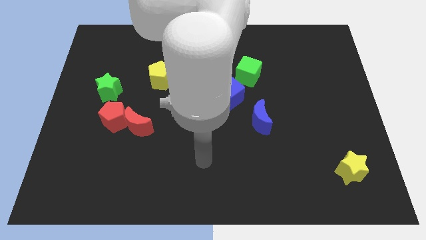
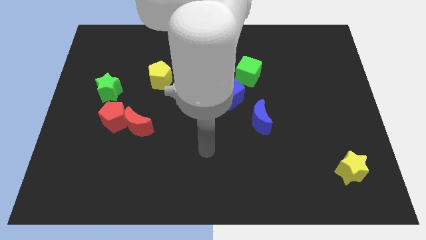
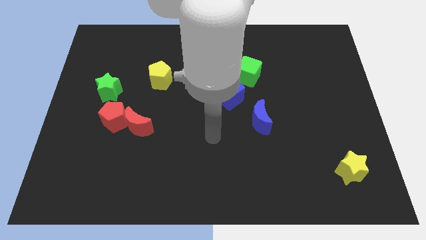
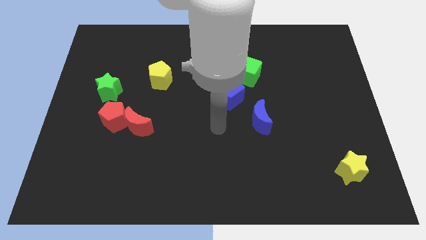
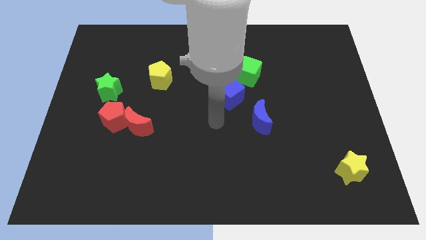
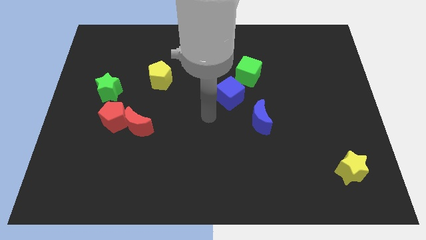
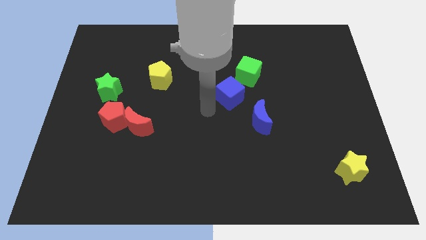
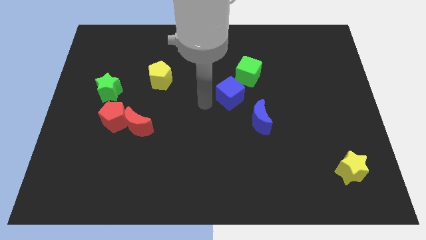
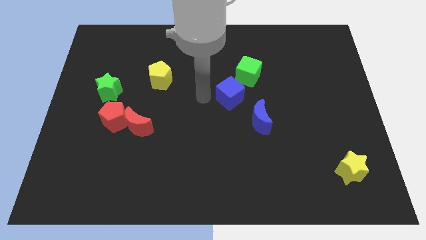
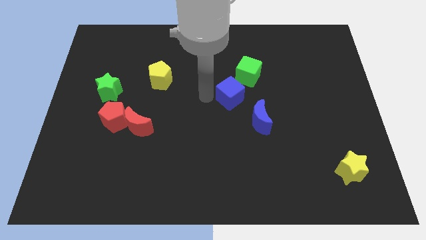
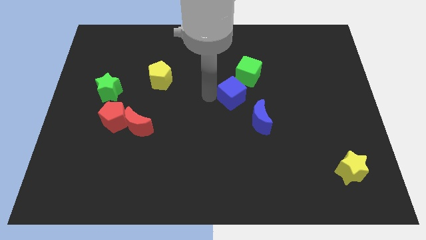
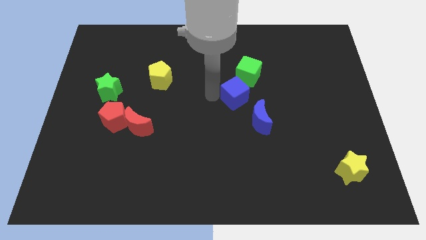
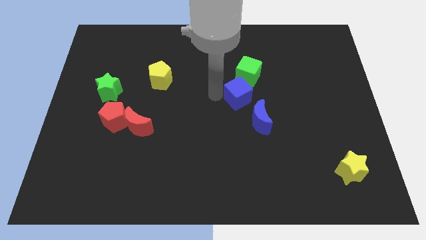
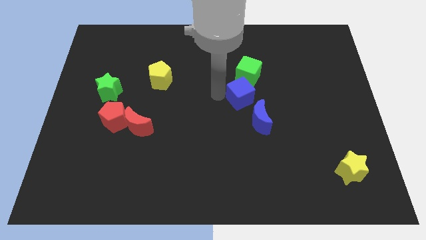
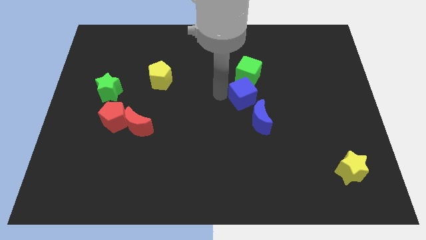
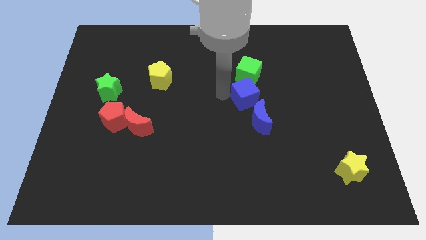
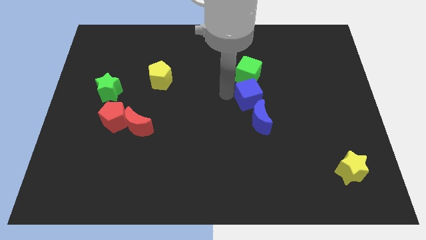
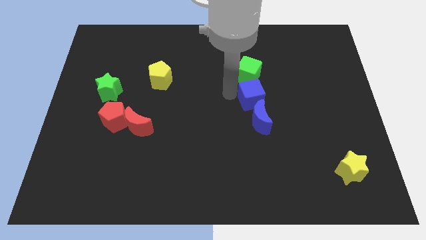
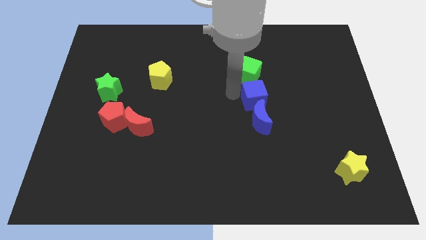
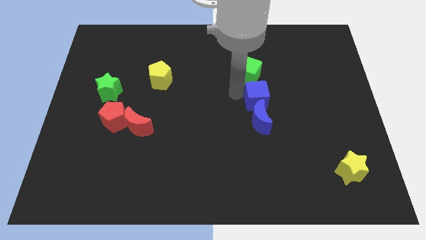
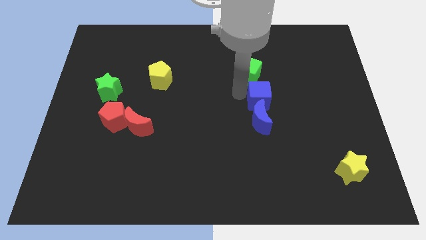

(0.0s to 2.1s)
slightly move the blue cube to the right

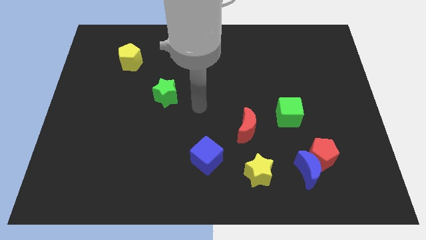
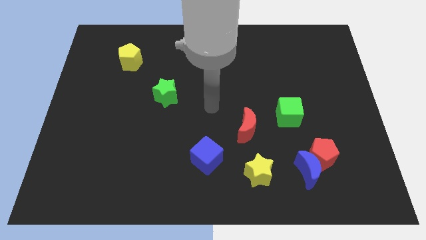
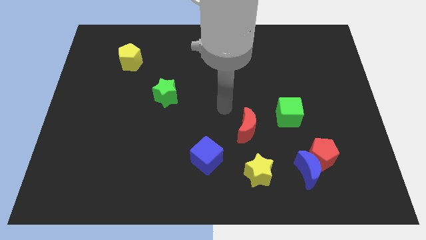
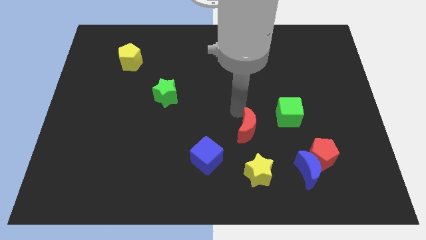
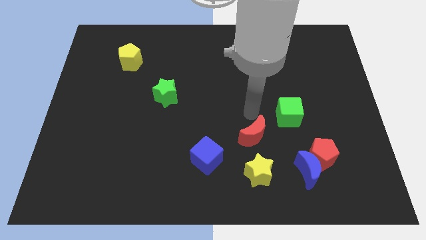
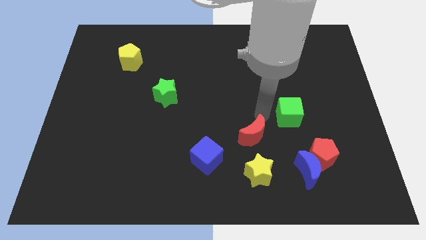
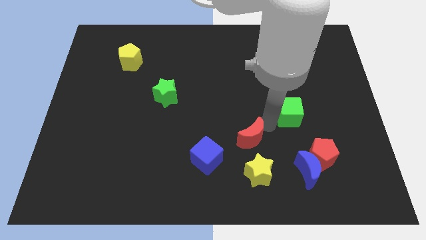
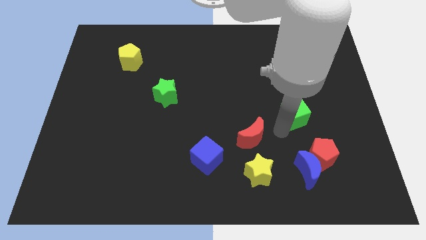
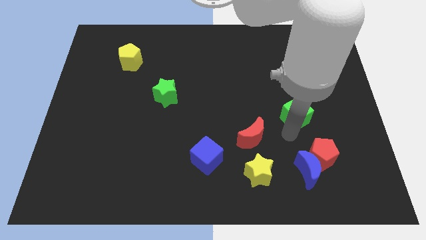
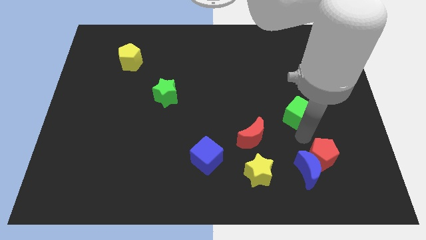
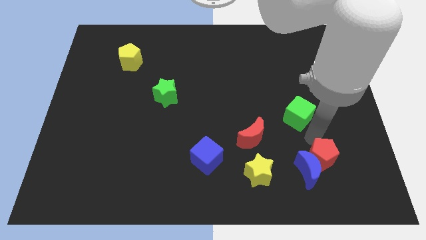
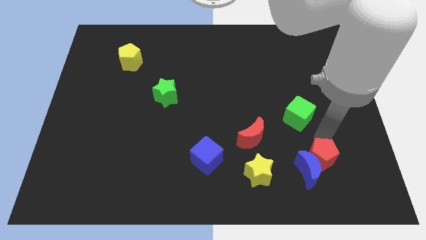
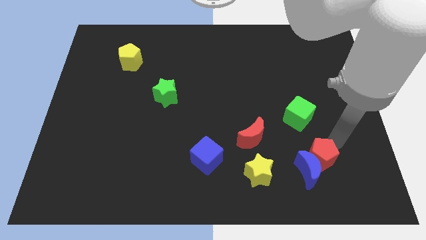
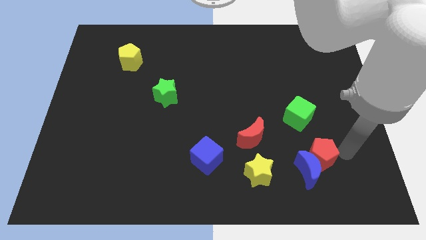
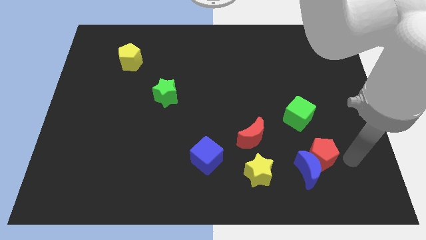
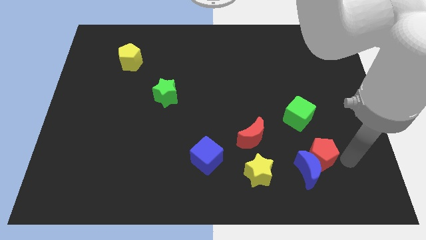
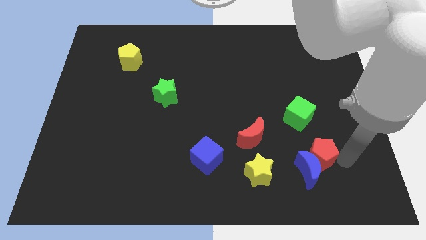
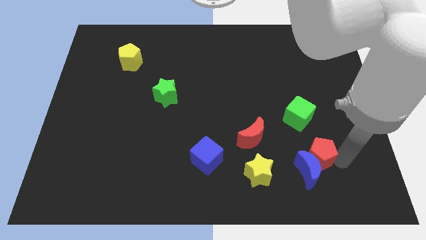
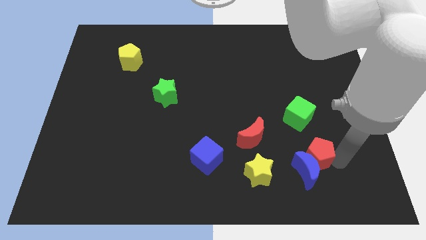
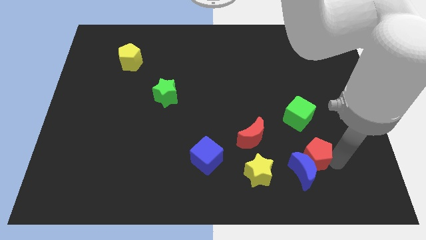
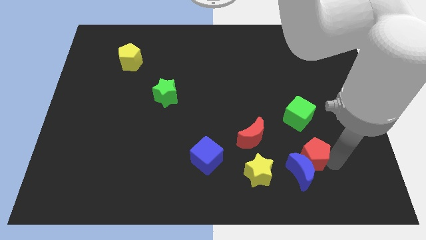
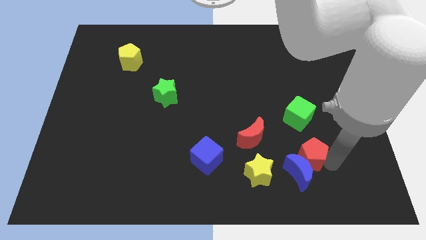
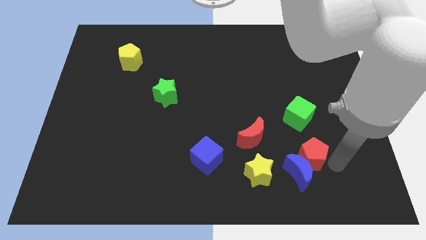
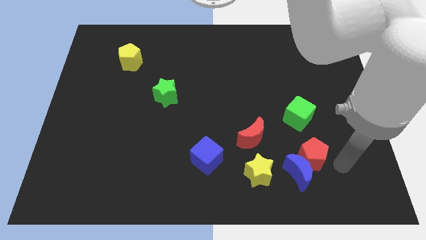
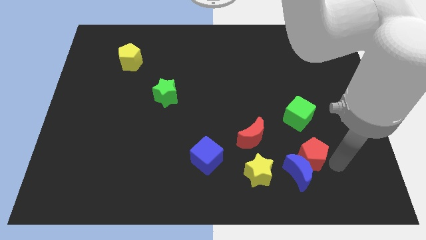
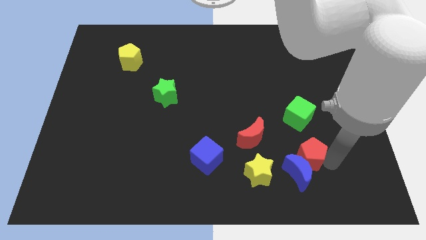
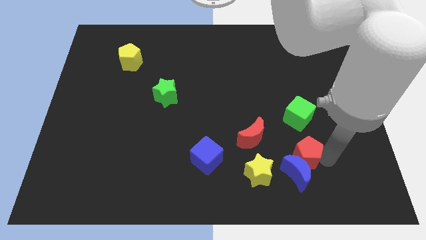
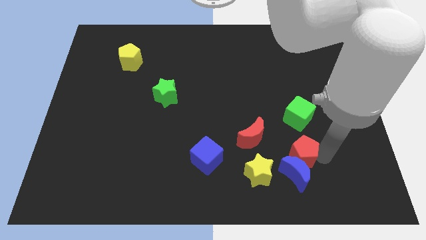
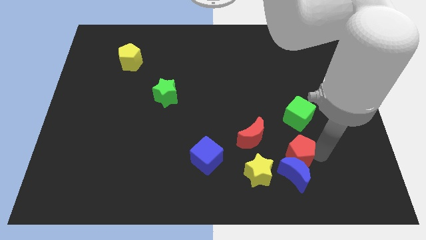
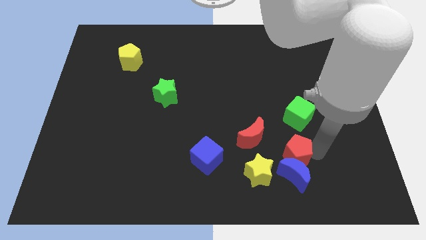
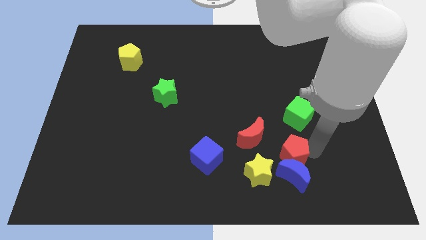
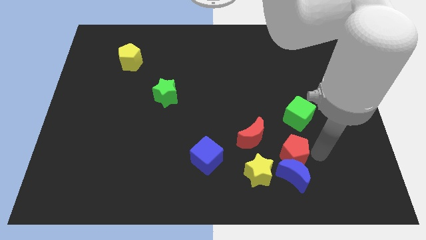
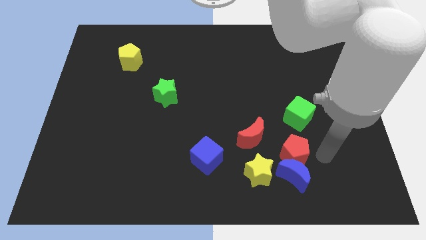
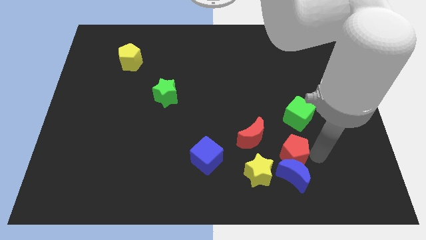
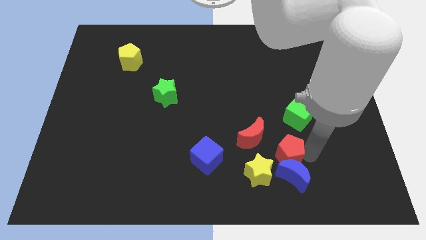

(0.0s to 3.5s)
slightly push the red pentagon left

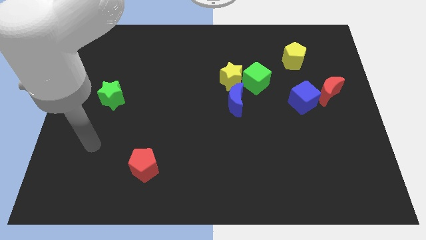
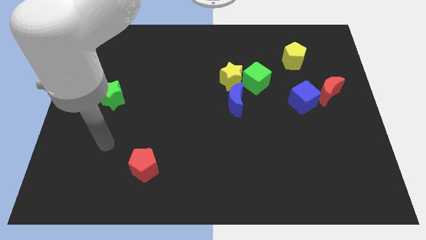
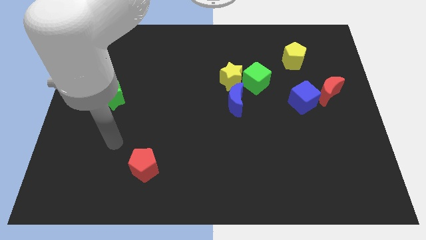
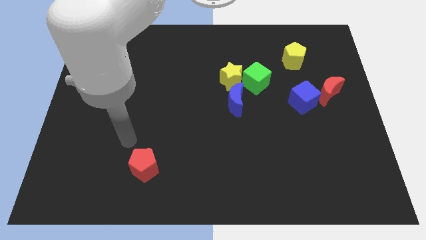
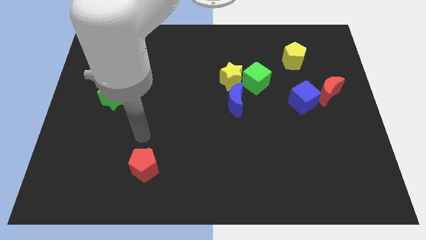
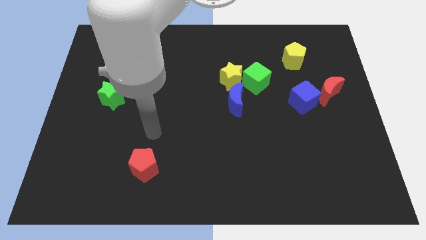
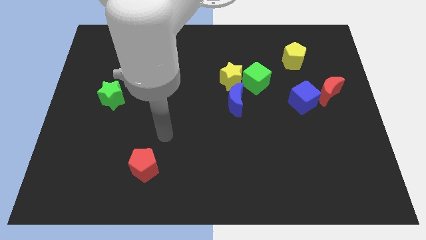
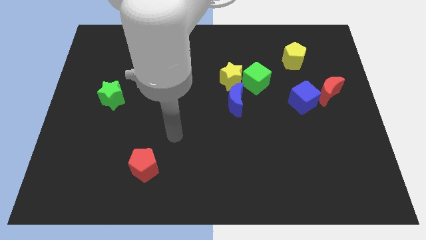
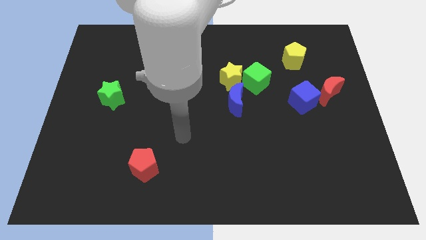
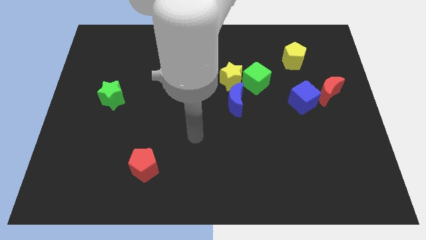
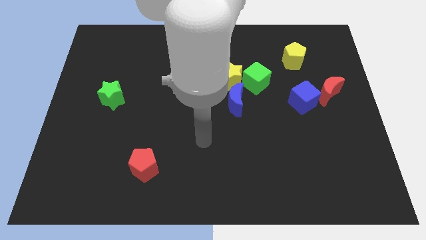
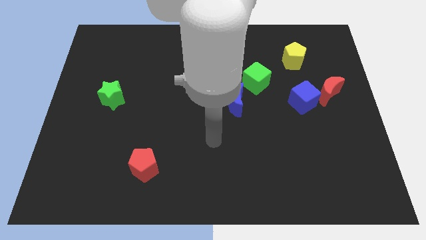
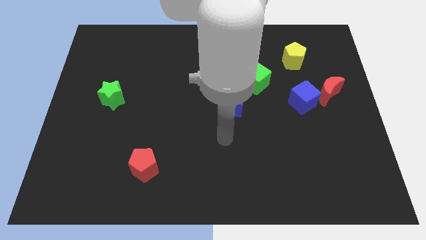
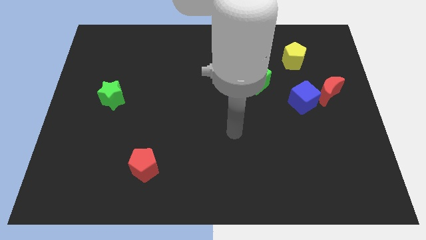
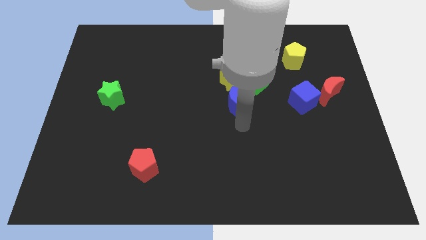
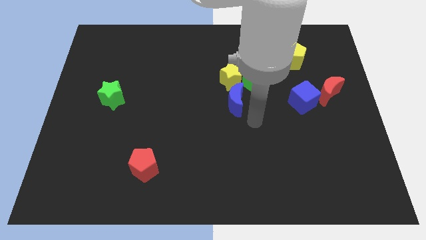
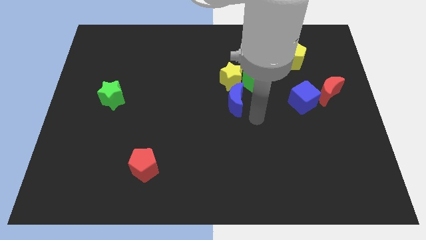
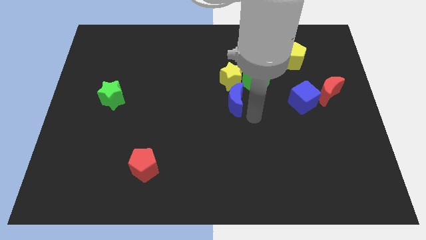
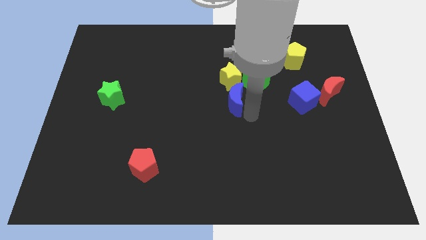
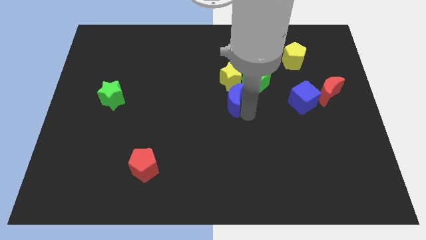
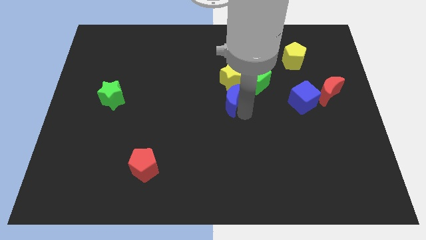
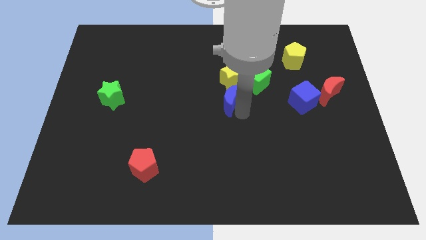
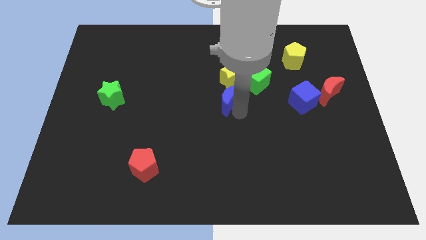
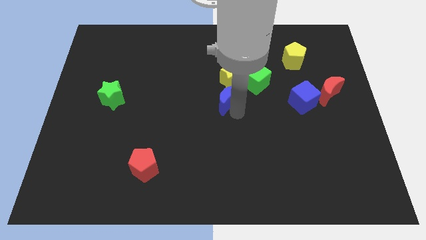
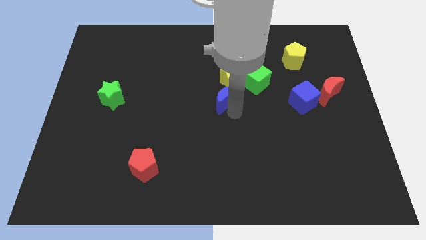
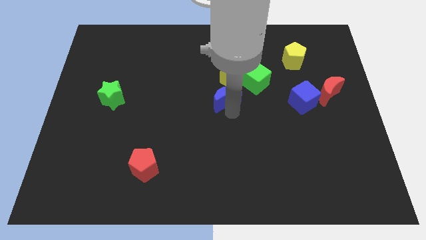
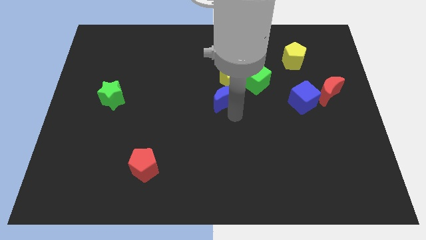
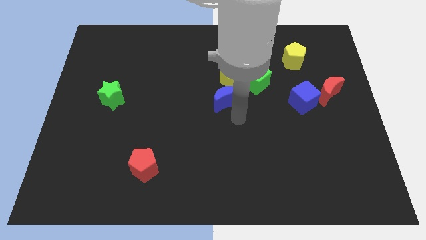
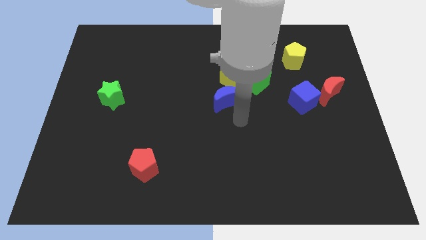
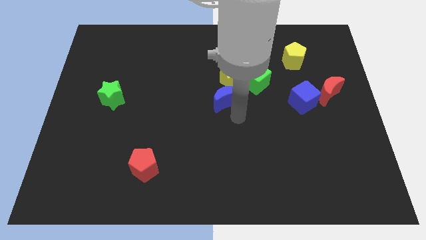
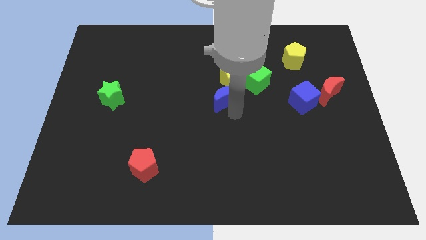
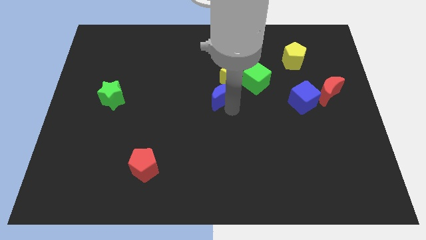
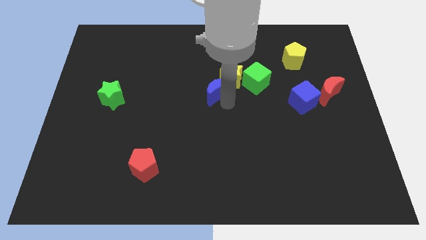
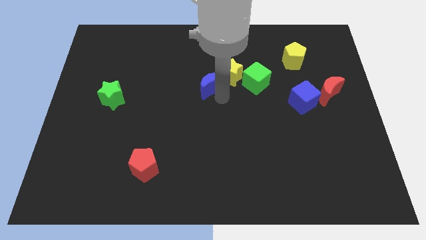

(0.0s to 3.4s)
slightly slide the blue moon diagonally upwards and to the left
